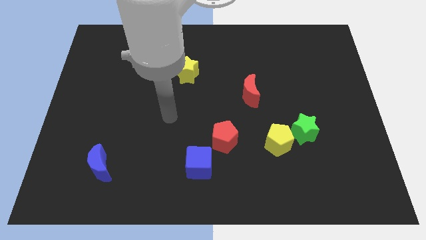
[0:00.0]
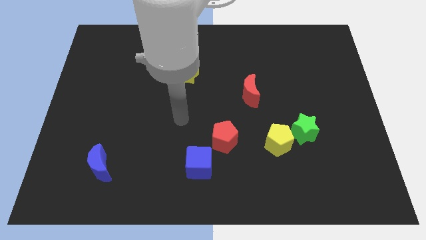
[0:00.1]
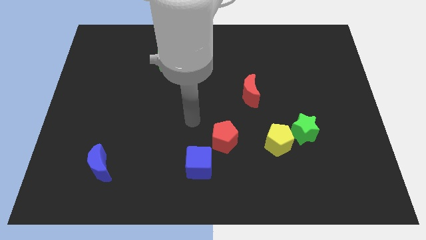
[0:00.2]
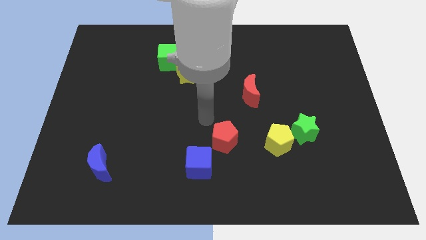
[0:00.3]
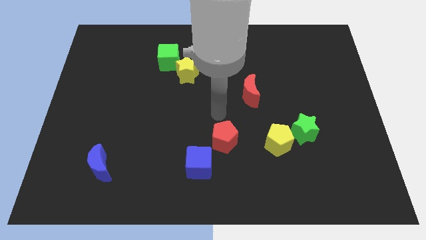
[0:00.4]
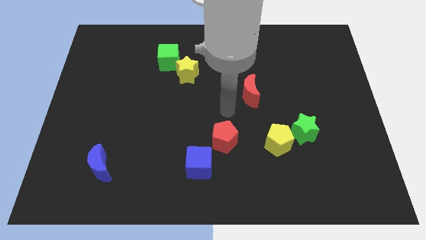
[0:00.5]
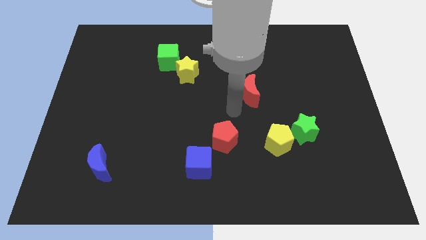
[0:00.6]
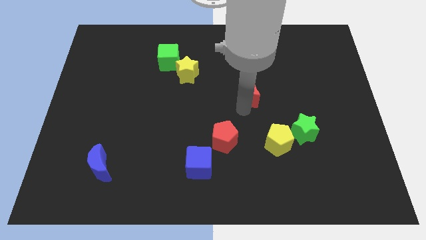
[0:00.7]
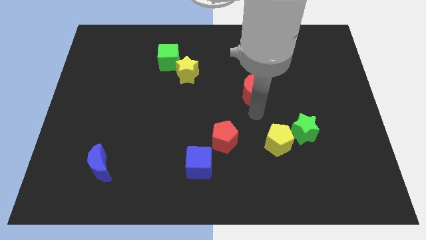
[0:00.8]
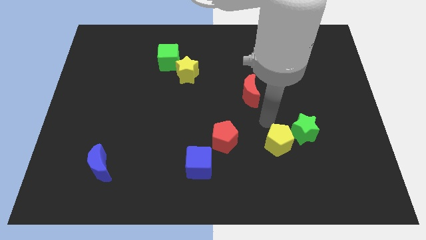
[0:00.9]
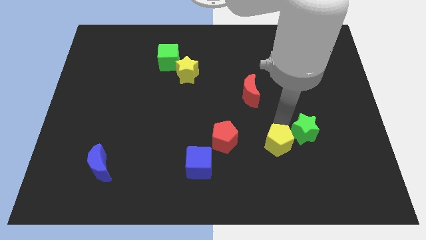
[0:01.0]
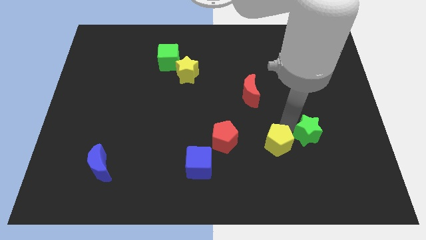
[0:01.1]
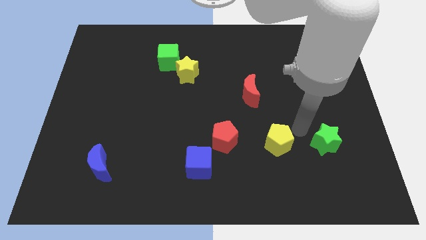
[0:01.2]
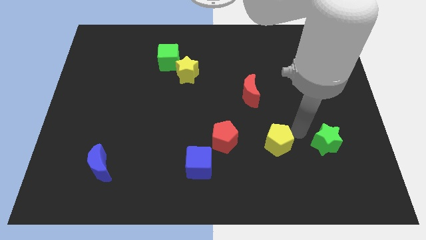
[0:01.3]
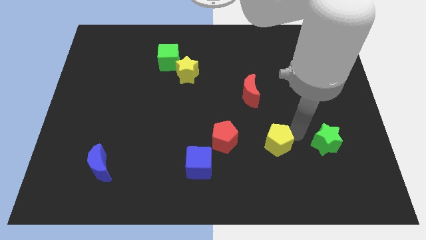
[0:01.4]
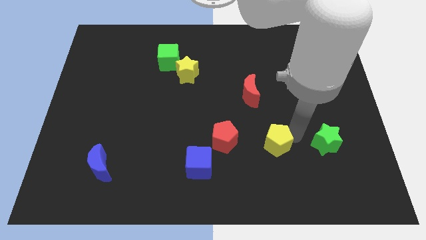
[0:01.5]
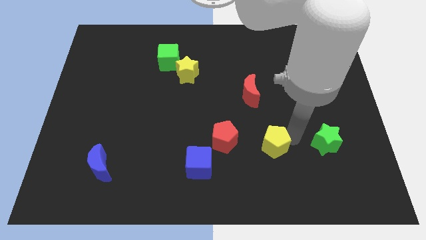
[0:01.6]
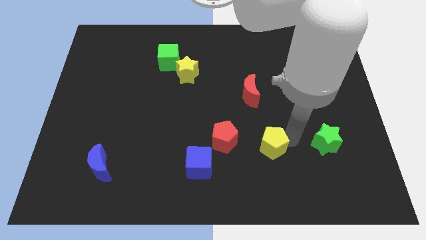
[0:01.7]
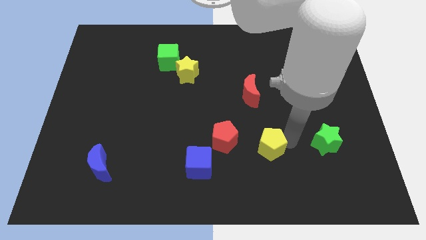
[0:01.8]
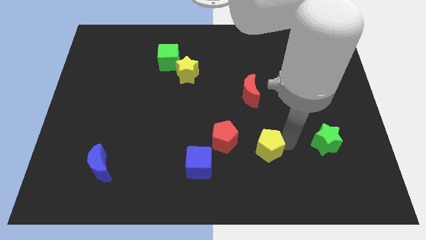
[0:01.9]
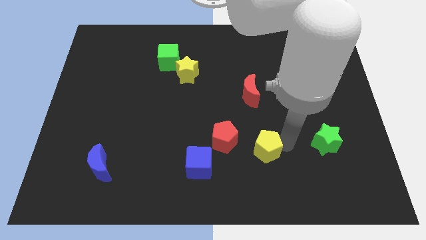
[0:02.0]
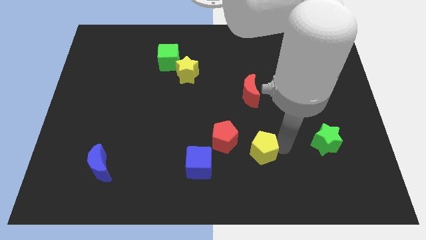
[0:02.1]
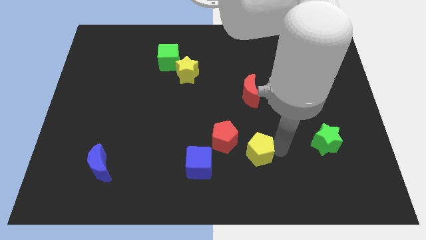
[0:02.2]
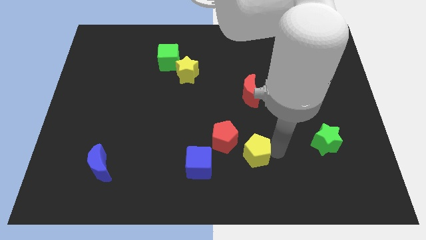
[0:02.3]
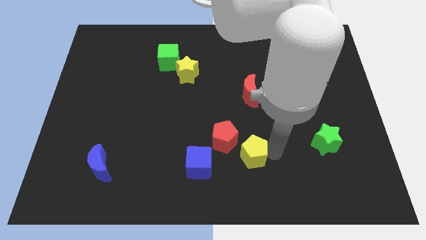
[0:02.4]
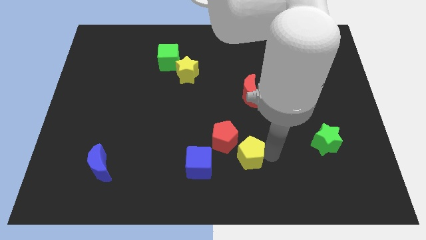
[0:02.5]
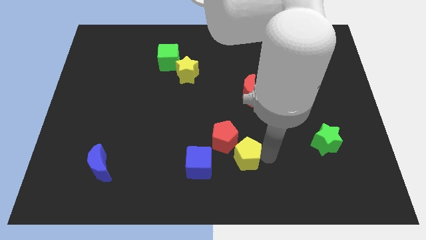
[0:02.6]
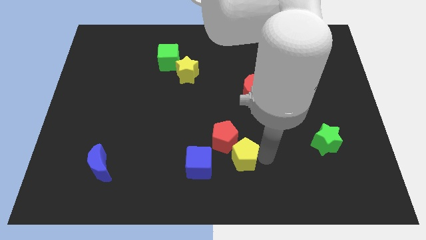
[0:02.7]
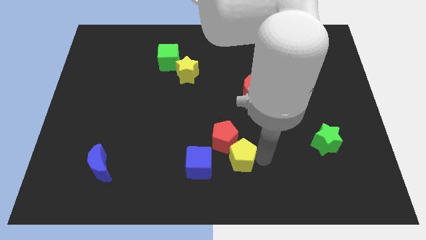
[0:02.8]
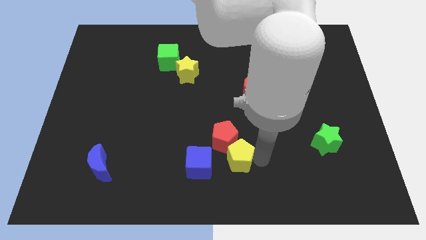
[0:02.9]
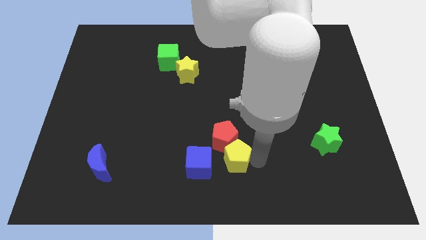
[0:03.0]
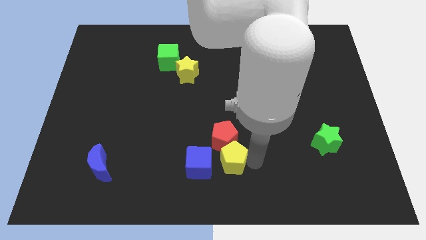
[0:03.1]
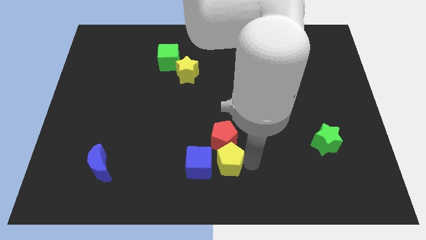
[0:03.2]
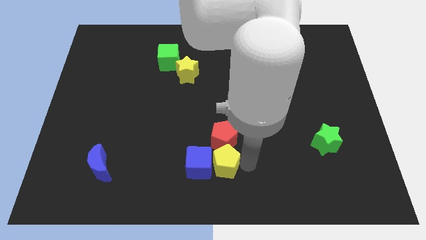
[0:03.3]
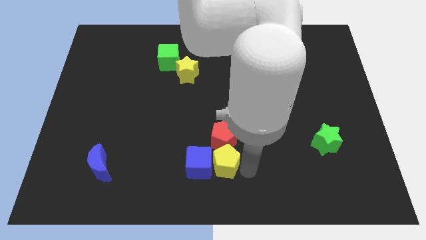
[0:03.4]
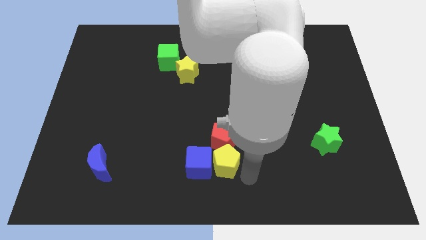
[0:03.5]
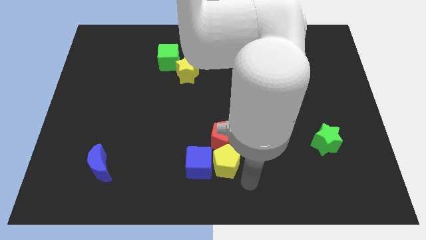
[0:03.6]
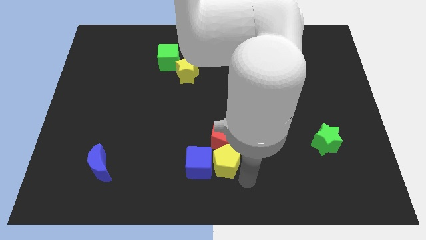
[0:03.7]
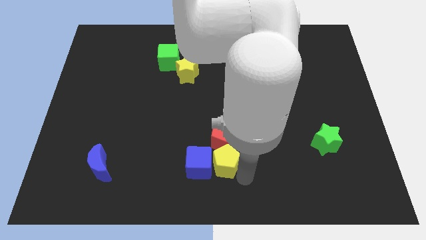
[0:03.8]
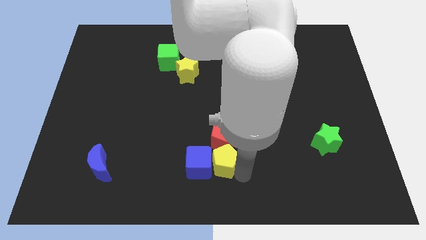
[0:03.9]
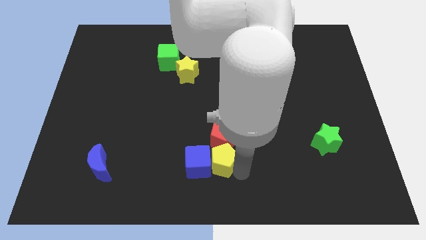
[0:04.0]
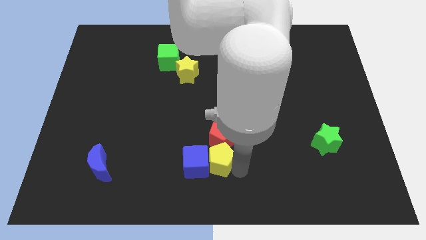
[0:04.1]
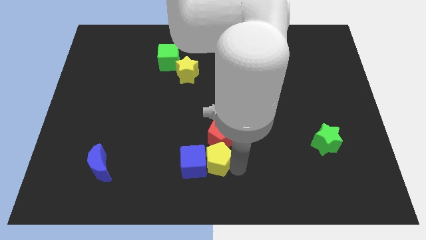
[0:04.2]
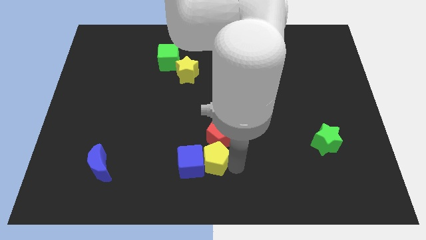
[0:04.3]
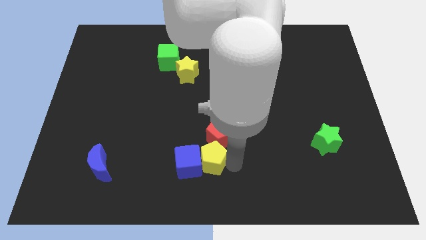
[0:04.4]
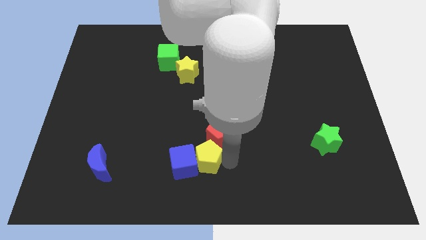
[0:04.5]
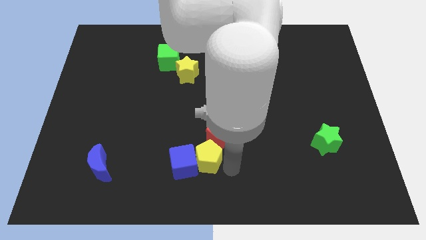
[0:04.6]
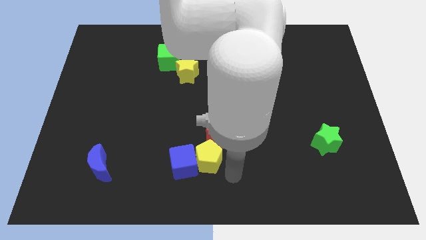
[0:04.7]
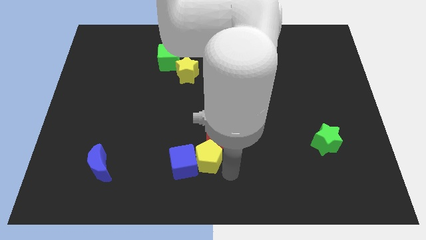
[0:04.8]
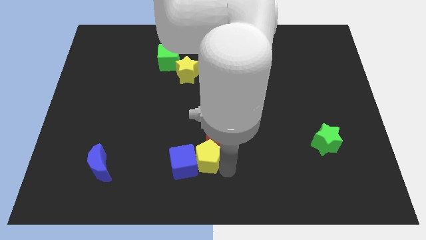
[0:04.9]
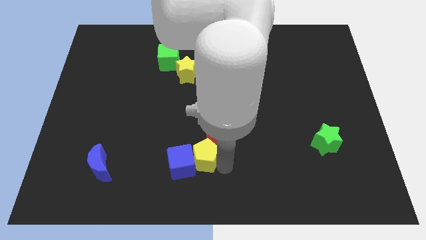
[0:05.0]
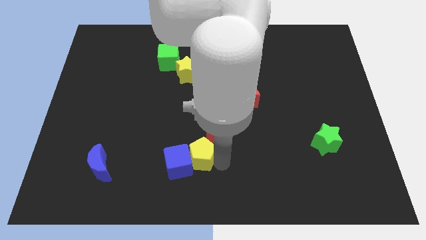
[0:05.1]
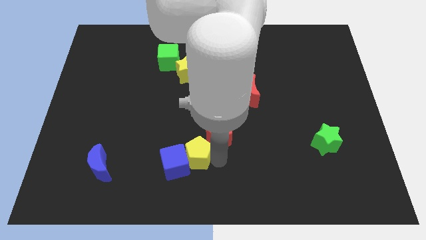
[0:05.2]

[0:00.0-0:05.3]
move the yellow pentagon left of the red pentagon

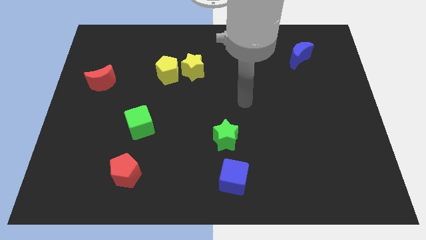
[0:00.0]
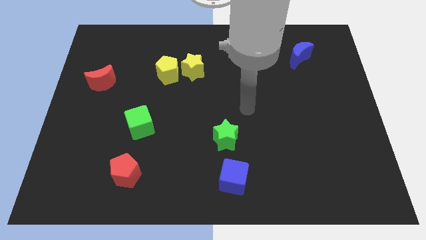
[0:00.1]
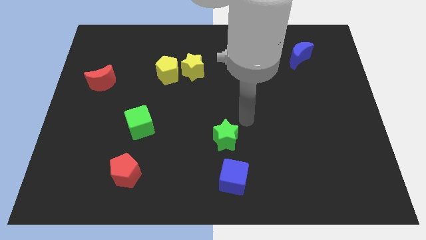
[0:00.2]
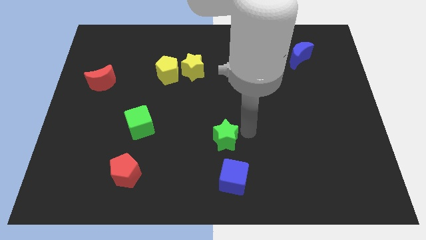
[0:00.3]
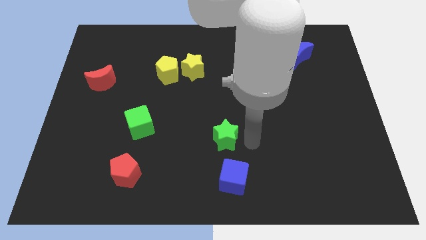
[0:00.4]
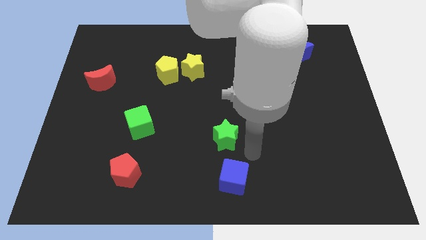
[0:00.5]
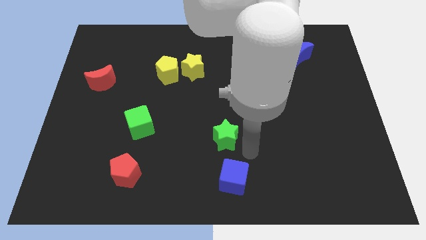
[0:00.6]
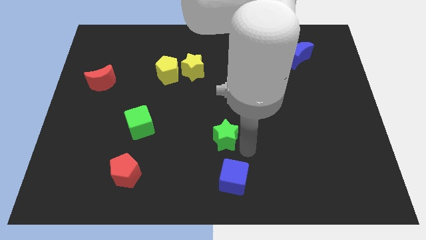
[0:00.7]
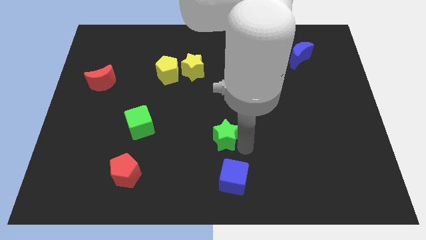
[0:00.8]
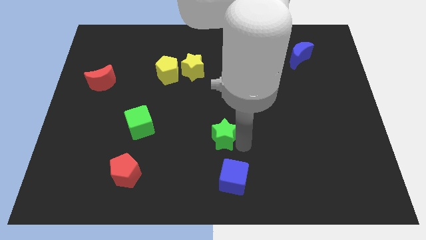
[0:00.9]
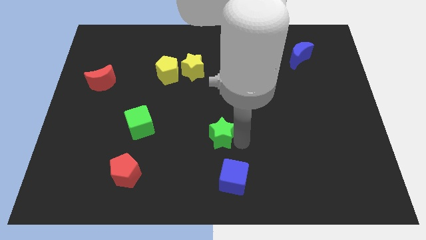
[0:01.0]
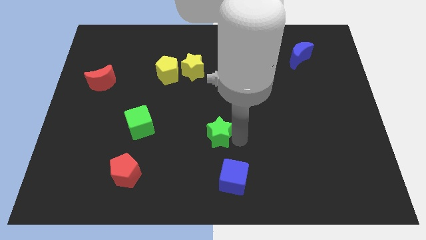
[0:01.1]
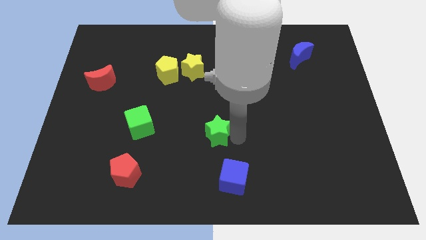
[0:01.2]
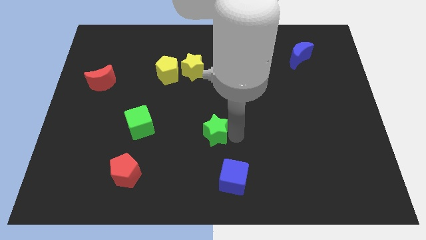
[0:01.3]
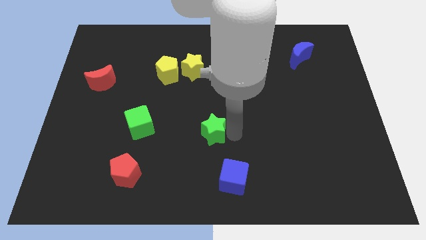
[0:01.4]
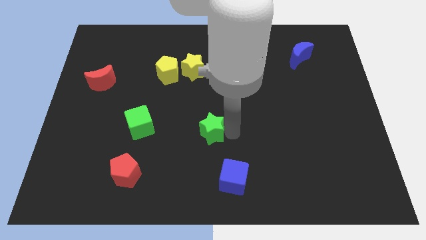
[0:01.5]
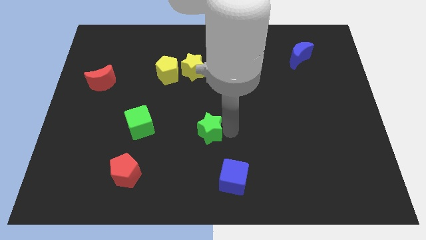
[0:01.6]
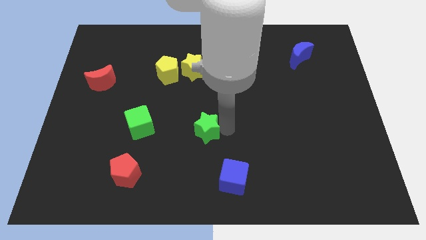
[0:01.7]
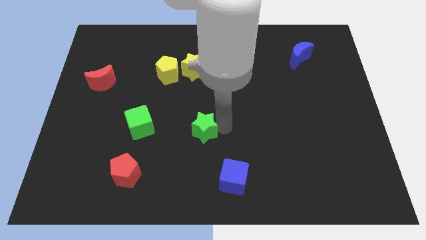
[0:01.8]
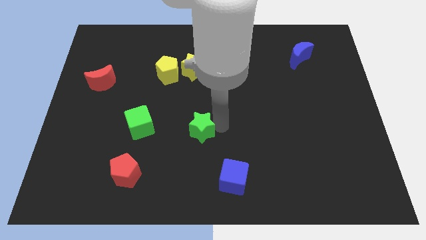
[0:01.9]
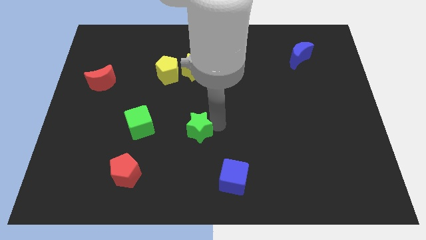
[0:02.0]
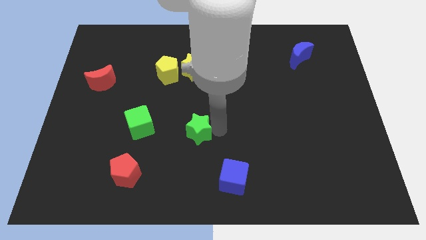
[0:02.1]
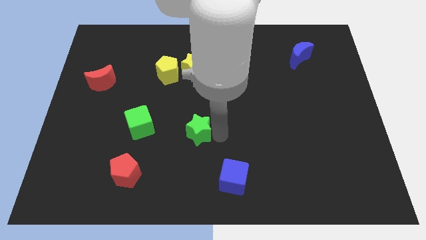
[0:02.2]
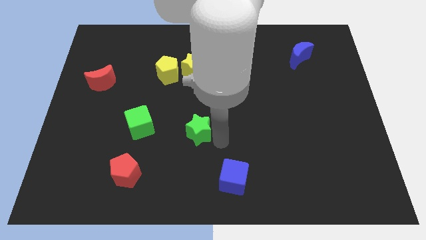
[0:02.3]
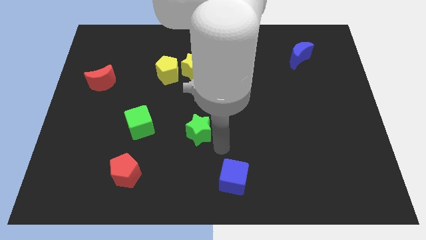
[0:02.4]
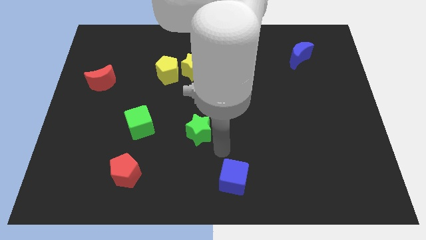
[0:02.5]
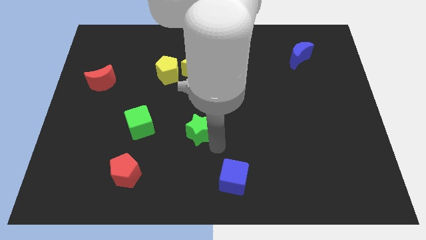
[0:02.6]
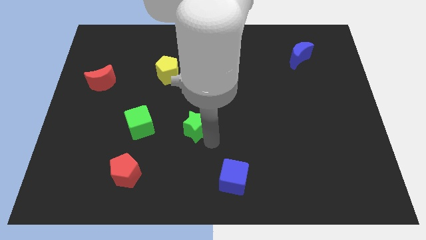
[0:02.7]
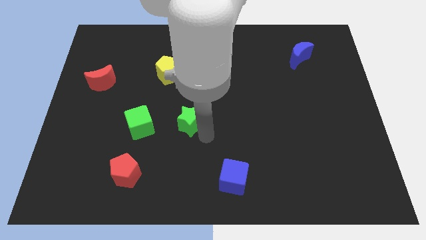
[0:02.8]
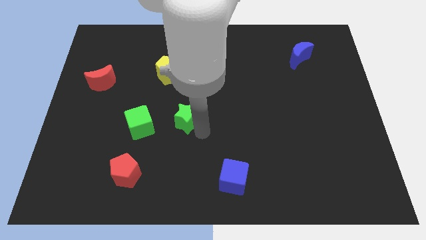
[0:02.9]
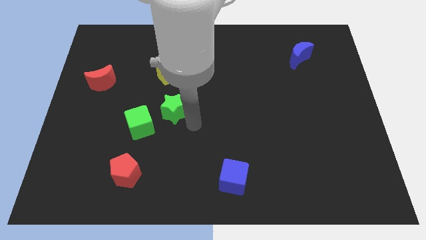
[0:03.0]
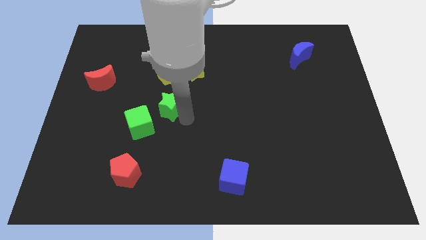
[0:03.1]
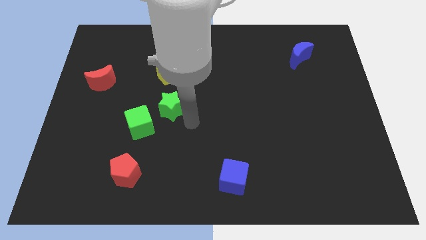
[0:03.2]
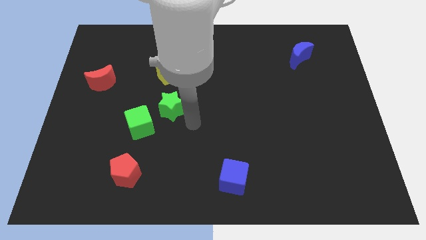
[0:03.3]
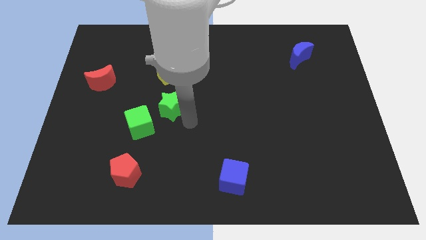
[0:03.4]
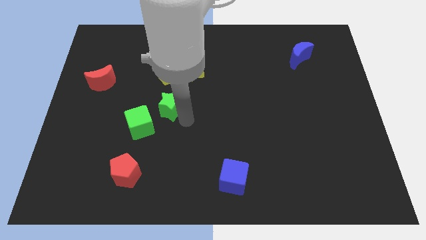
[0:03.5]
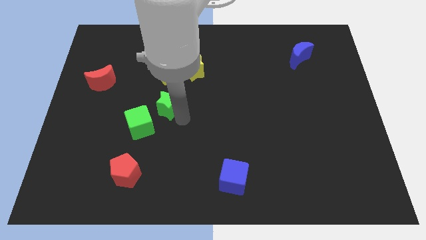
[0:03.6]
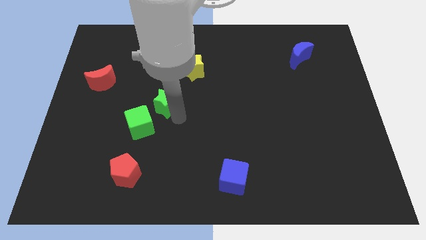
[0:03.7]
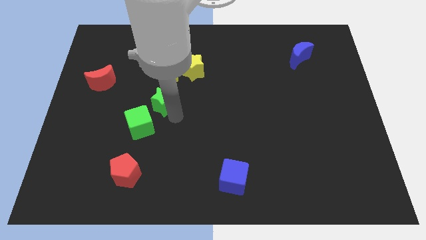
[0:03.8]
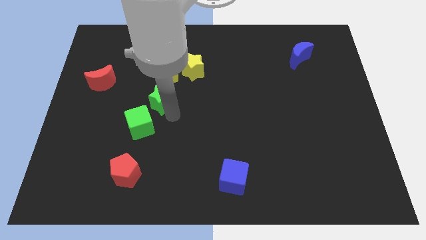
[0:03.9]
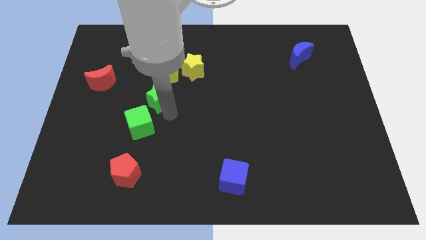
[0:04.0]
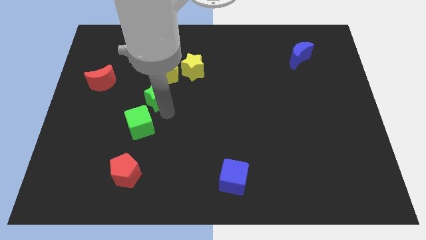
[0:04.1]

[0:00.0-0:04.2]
slide the green star to the bottom left of the yellow pentagon
